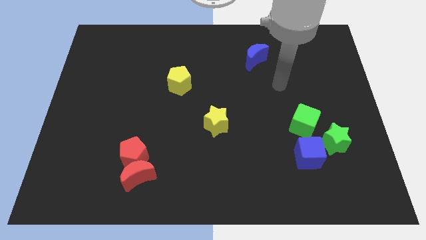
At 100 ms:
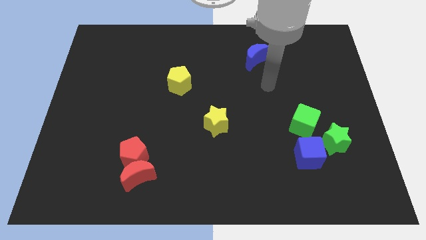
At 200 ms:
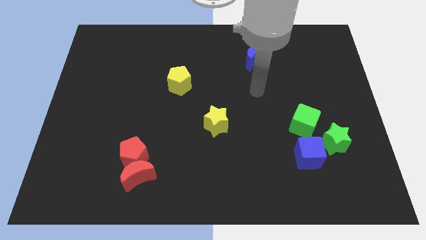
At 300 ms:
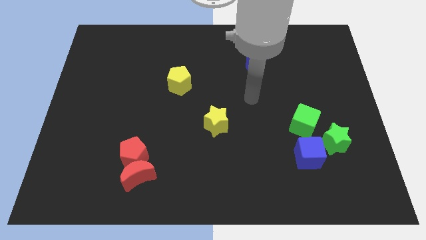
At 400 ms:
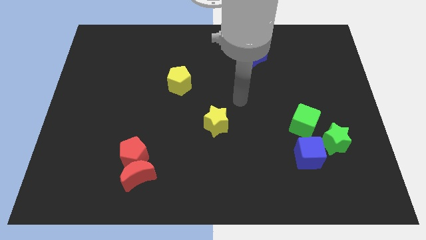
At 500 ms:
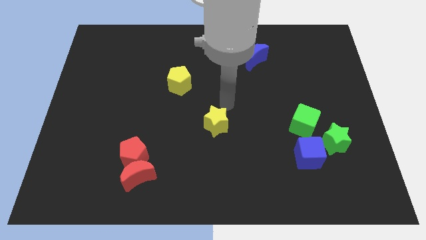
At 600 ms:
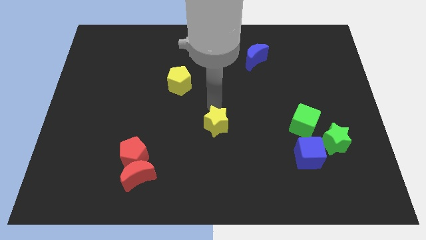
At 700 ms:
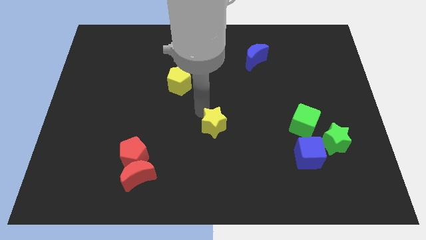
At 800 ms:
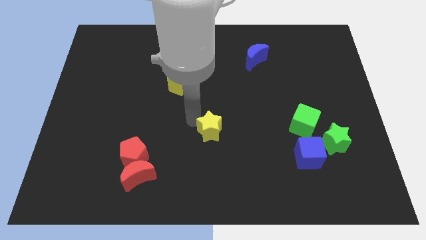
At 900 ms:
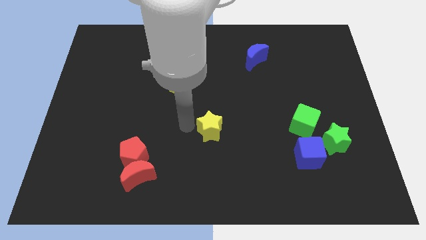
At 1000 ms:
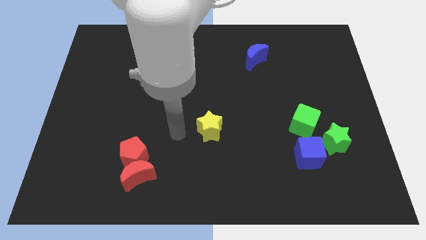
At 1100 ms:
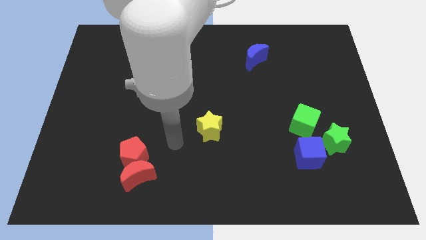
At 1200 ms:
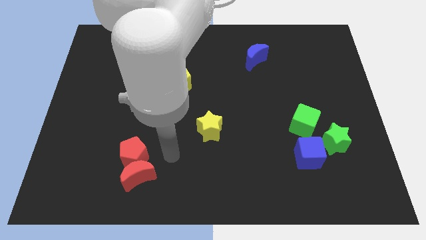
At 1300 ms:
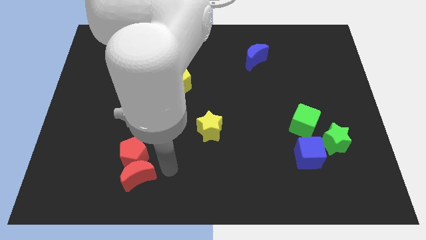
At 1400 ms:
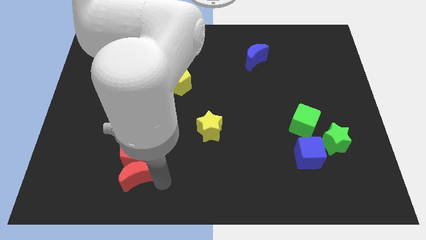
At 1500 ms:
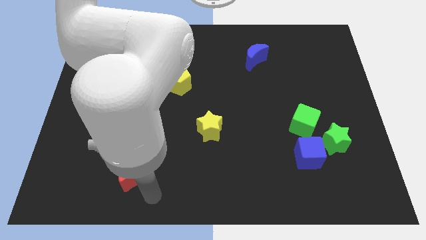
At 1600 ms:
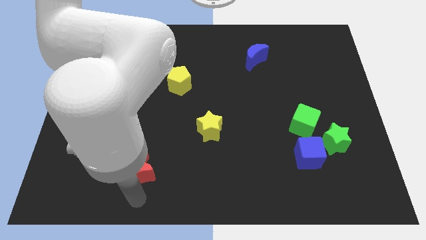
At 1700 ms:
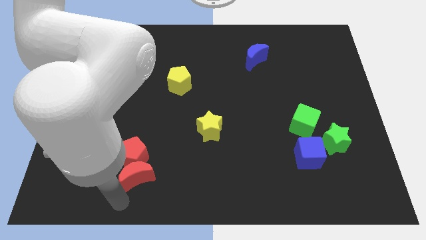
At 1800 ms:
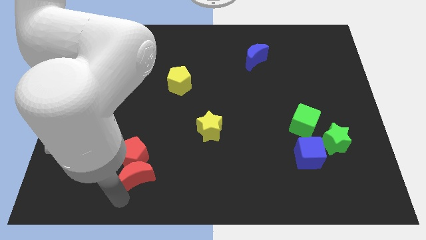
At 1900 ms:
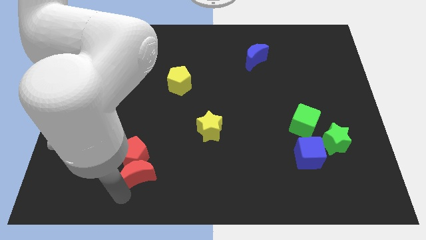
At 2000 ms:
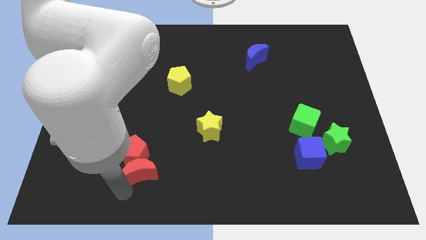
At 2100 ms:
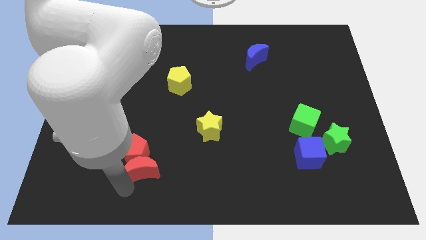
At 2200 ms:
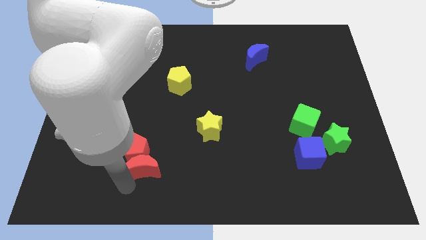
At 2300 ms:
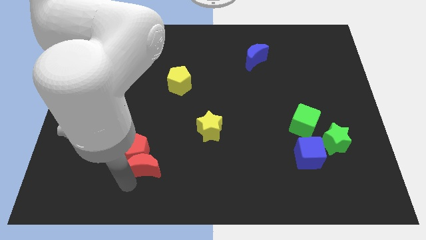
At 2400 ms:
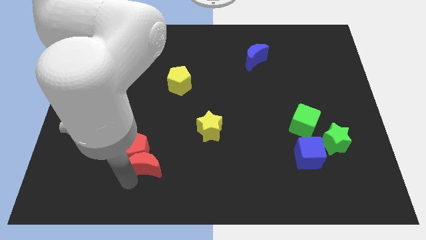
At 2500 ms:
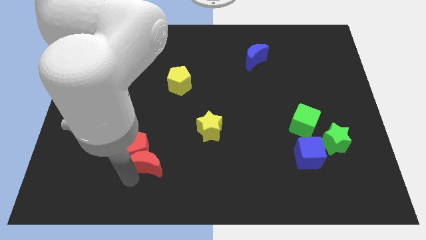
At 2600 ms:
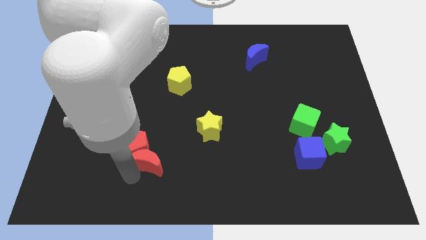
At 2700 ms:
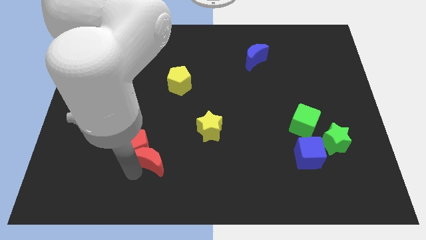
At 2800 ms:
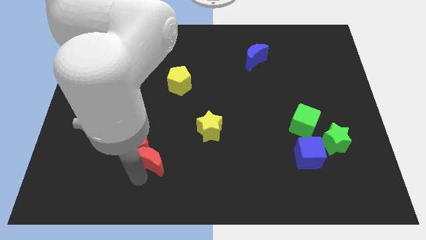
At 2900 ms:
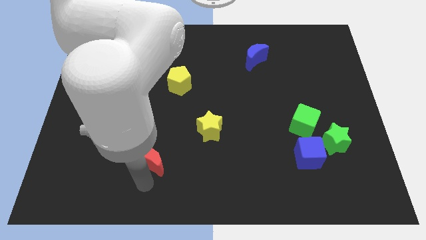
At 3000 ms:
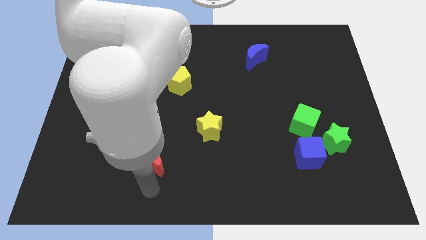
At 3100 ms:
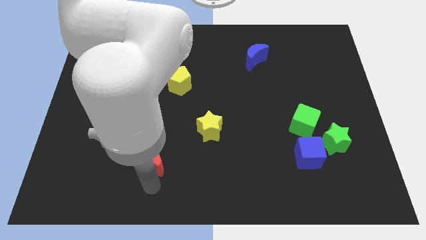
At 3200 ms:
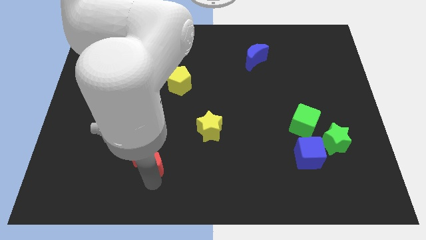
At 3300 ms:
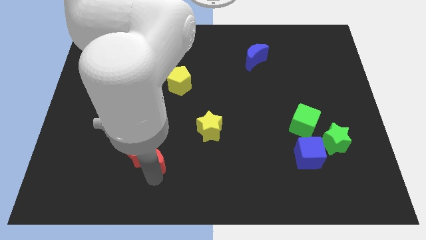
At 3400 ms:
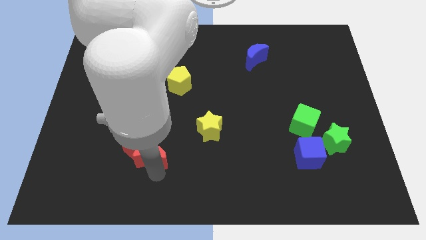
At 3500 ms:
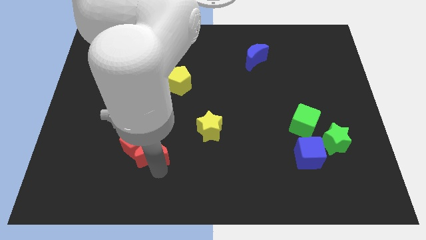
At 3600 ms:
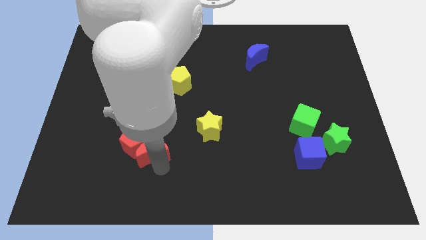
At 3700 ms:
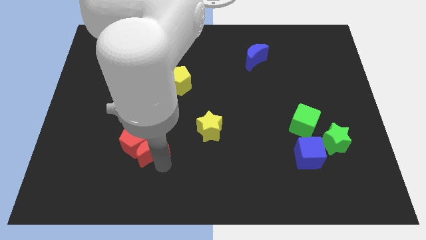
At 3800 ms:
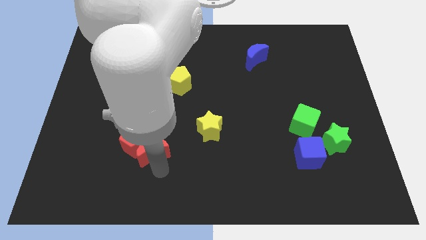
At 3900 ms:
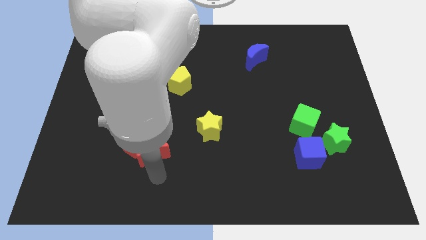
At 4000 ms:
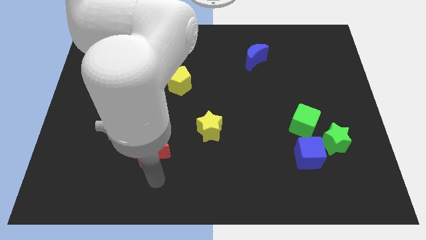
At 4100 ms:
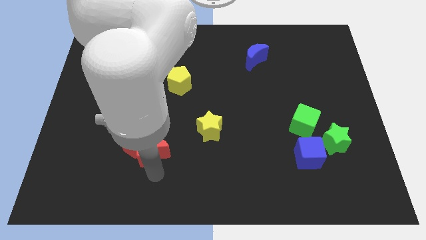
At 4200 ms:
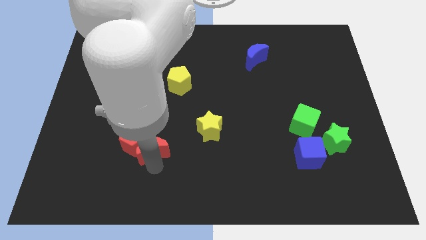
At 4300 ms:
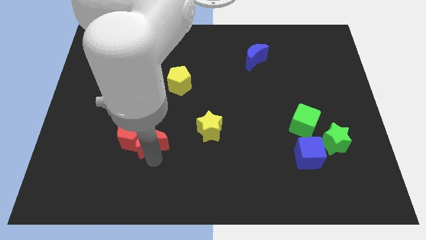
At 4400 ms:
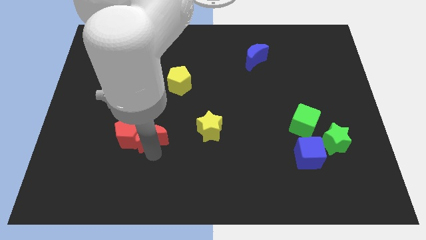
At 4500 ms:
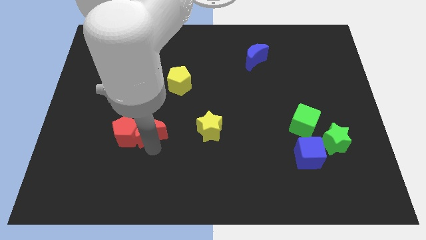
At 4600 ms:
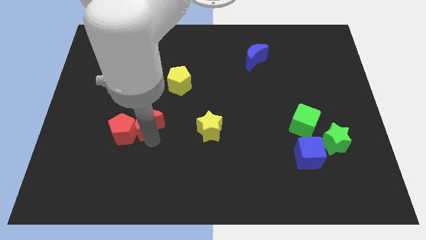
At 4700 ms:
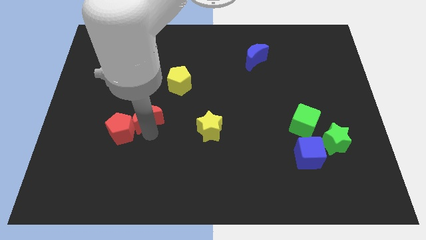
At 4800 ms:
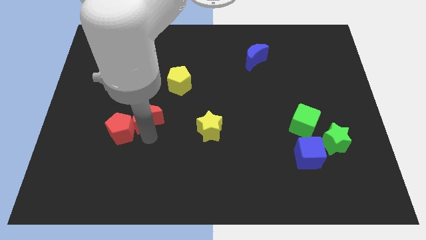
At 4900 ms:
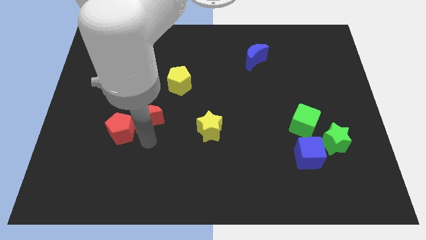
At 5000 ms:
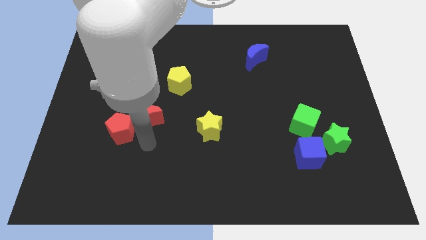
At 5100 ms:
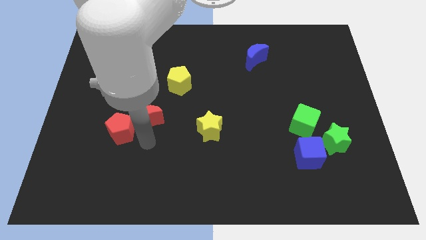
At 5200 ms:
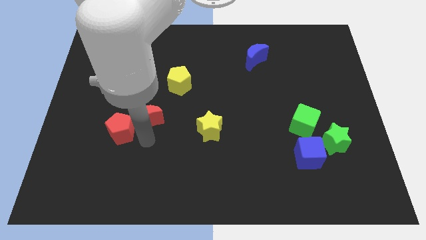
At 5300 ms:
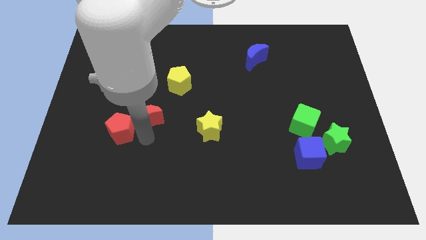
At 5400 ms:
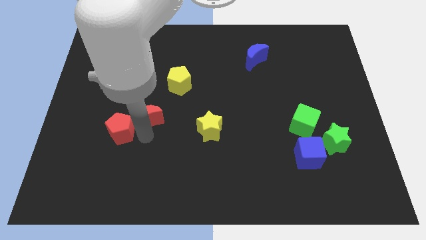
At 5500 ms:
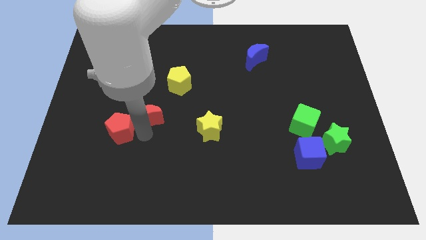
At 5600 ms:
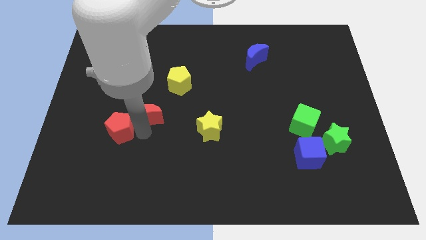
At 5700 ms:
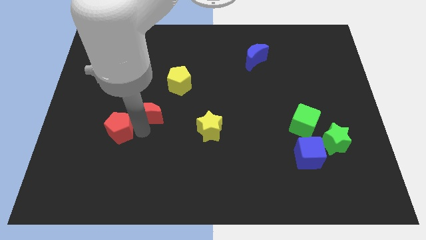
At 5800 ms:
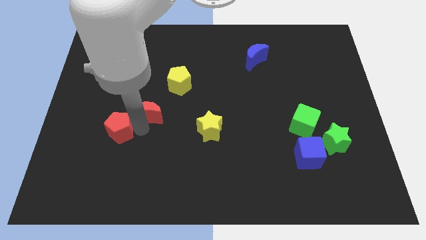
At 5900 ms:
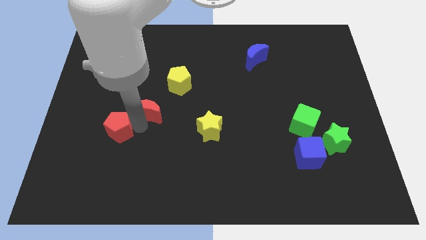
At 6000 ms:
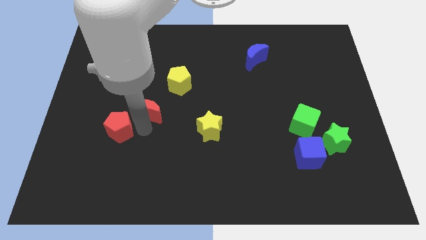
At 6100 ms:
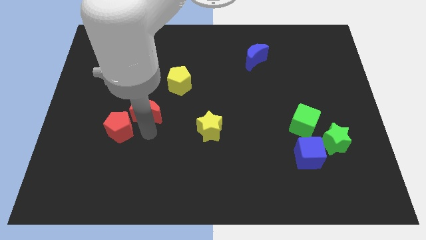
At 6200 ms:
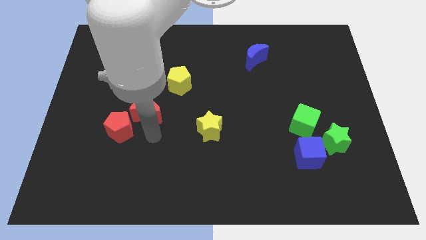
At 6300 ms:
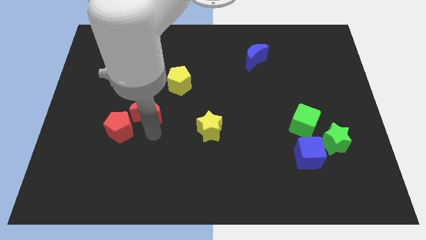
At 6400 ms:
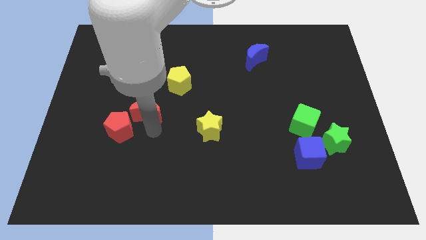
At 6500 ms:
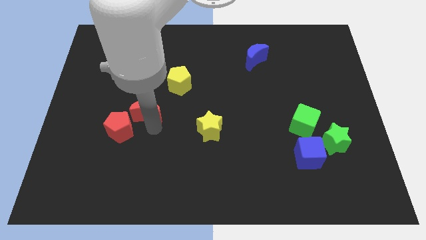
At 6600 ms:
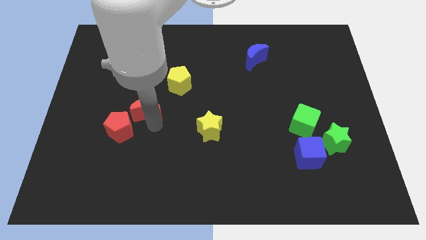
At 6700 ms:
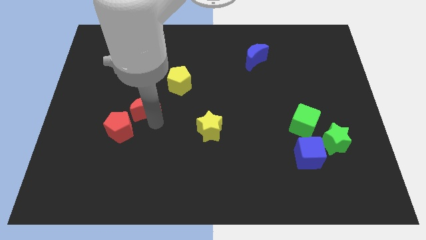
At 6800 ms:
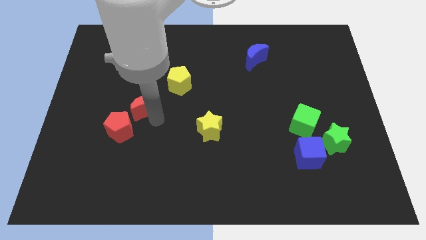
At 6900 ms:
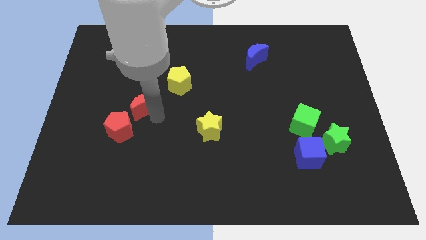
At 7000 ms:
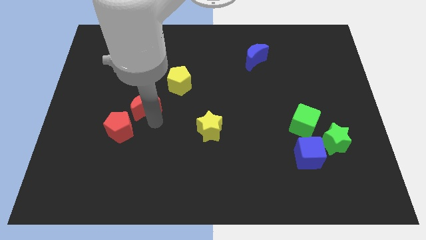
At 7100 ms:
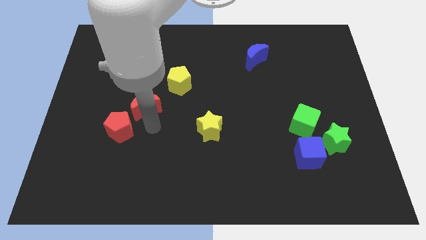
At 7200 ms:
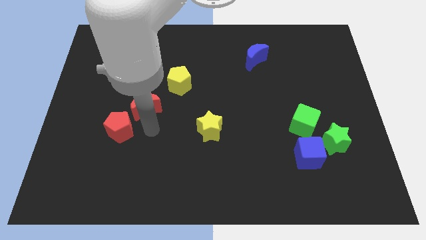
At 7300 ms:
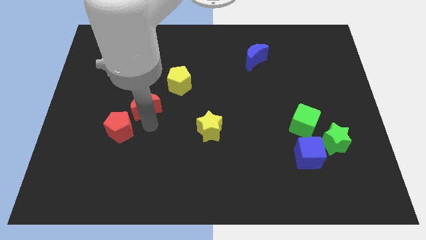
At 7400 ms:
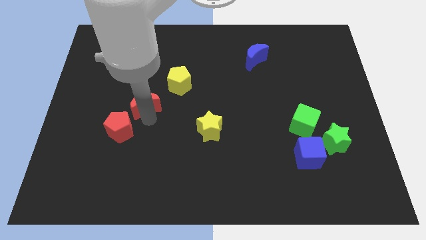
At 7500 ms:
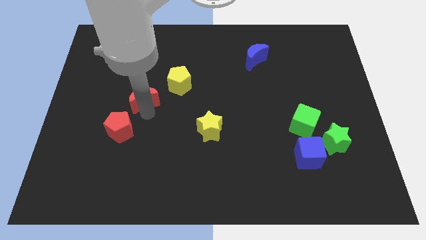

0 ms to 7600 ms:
slide the red moon up

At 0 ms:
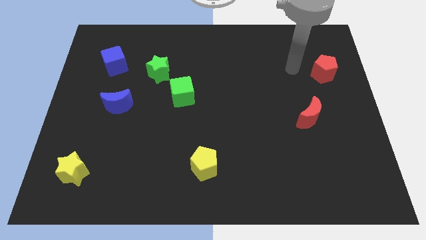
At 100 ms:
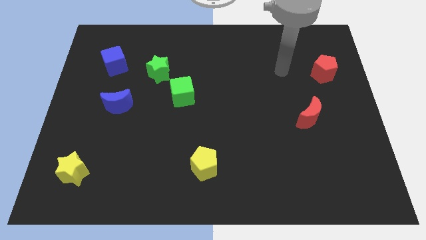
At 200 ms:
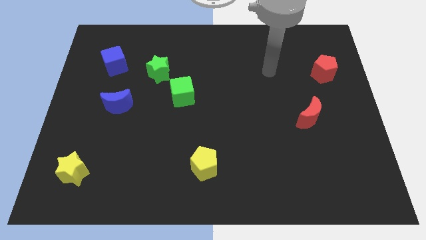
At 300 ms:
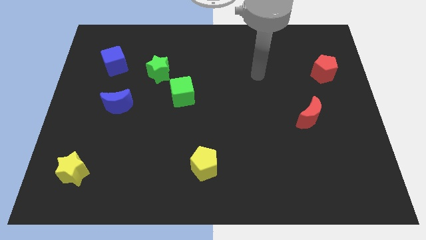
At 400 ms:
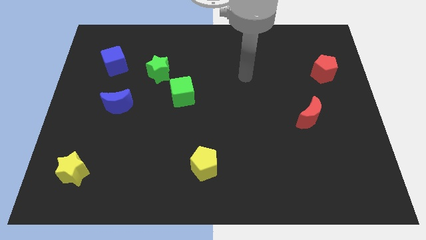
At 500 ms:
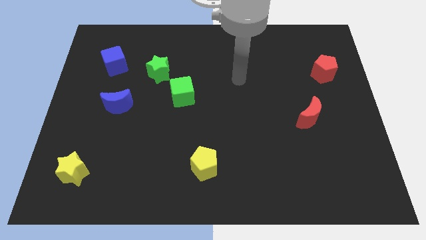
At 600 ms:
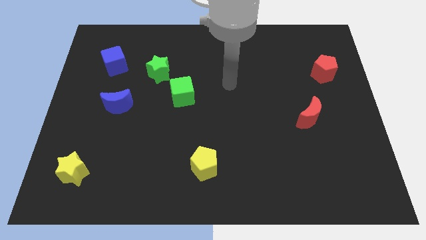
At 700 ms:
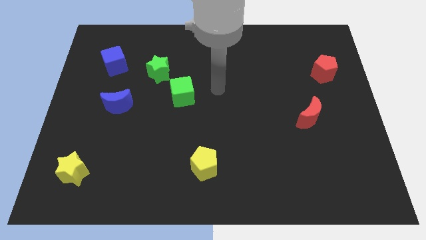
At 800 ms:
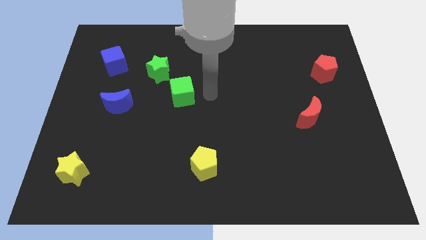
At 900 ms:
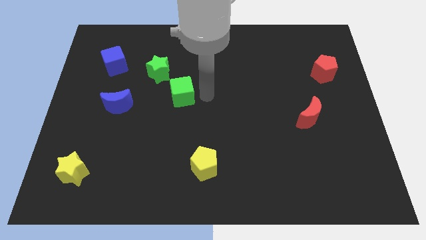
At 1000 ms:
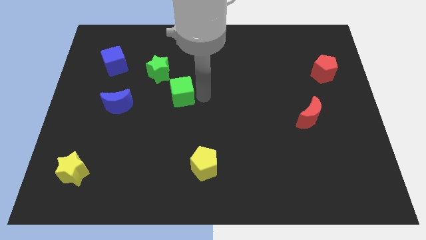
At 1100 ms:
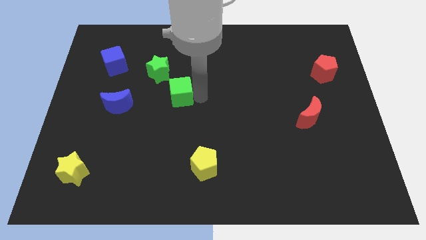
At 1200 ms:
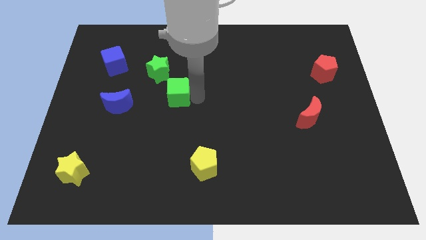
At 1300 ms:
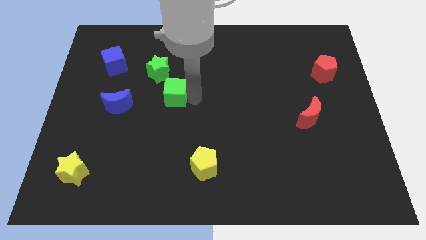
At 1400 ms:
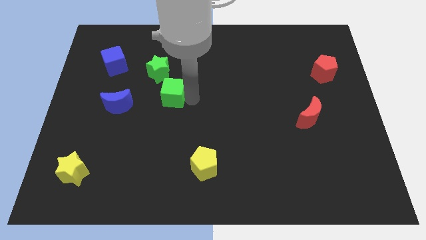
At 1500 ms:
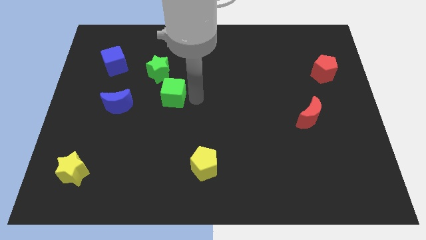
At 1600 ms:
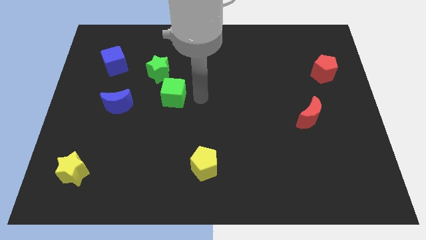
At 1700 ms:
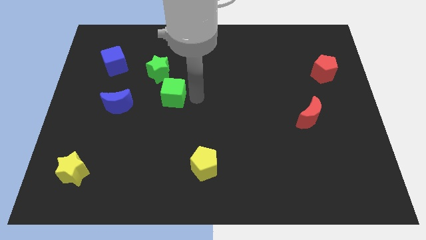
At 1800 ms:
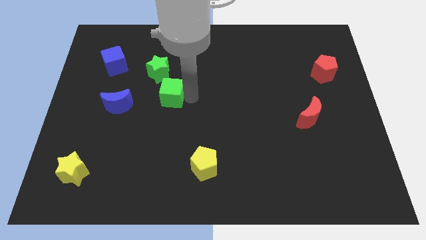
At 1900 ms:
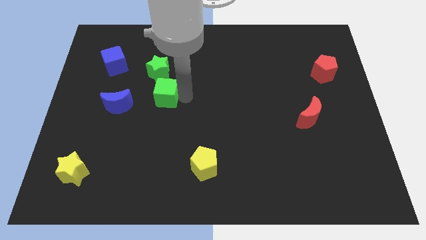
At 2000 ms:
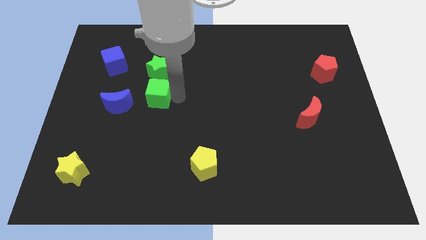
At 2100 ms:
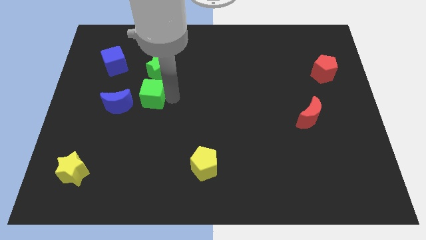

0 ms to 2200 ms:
push the green cube to the left somewhat
